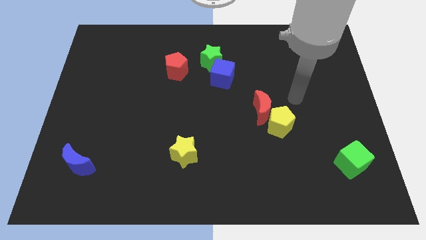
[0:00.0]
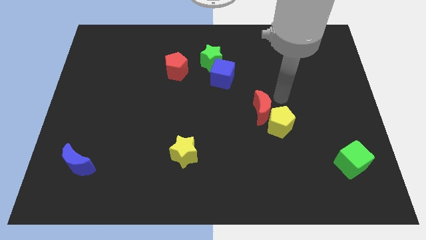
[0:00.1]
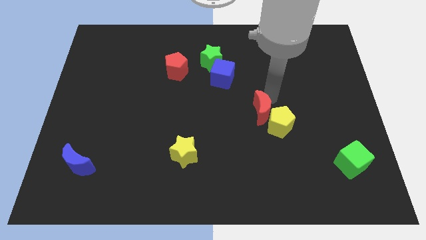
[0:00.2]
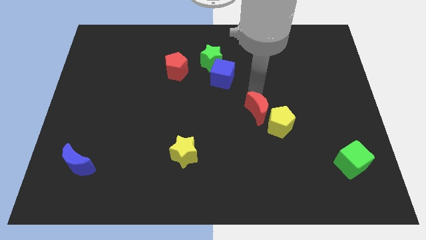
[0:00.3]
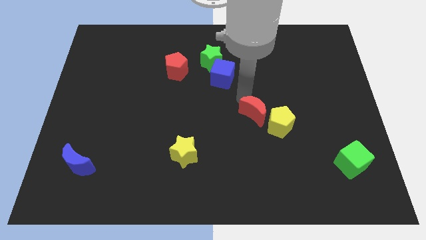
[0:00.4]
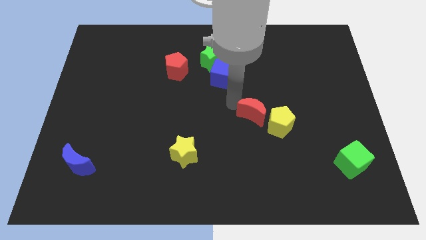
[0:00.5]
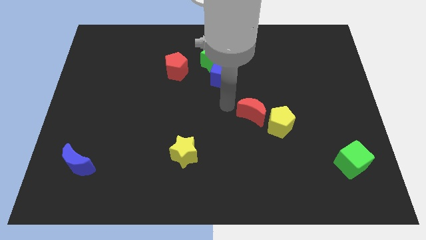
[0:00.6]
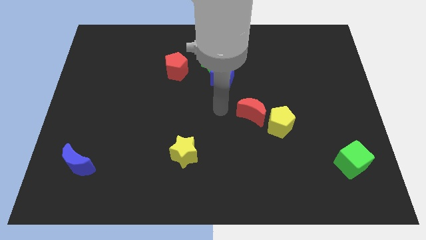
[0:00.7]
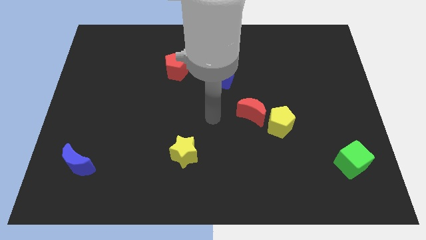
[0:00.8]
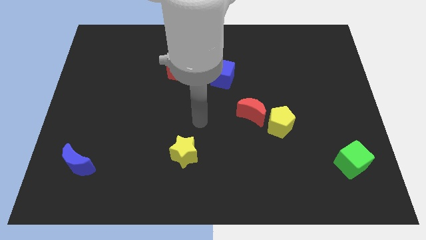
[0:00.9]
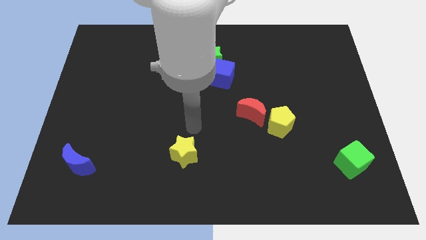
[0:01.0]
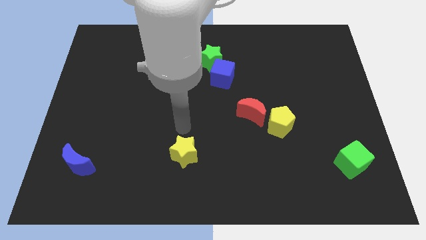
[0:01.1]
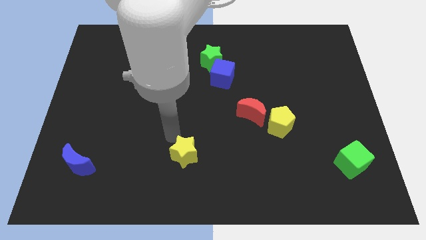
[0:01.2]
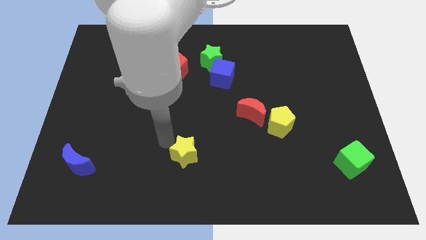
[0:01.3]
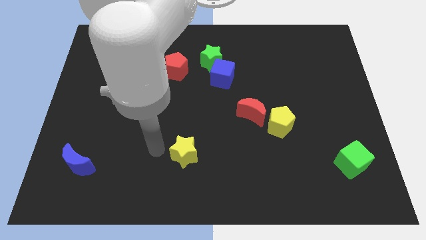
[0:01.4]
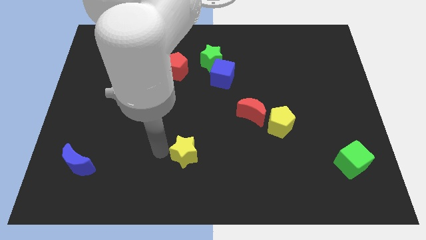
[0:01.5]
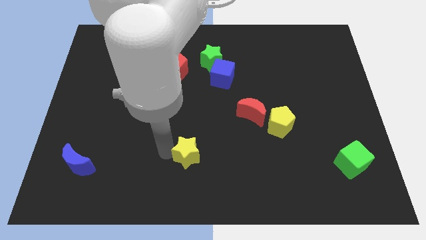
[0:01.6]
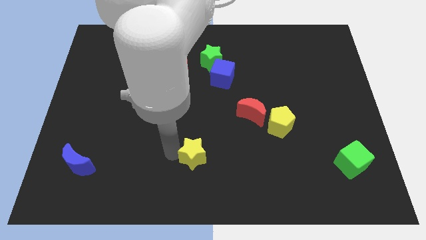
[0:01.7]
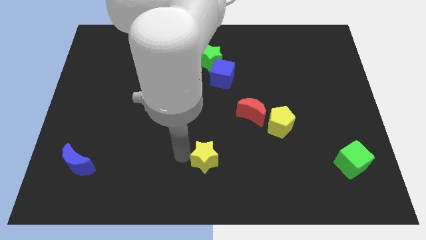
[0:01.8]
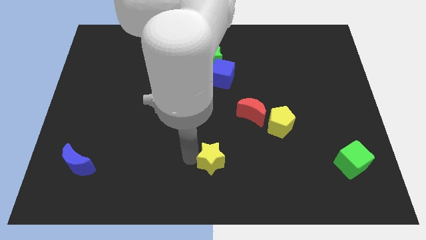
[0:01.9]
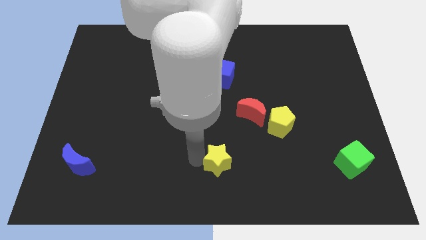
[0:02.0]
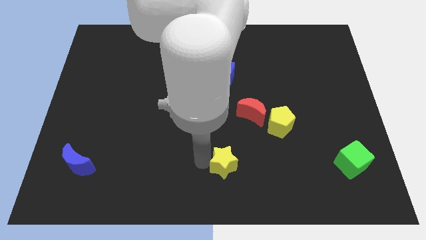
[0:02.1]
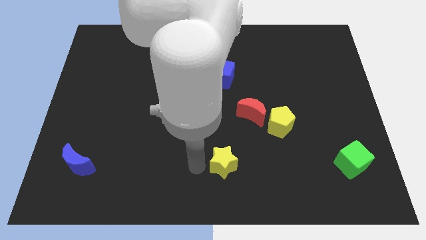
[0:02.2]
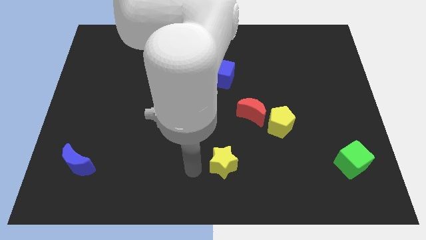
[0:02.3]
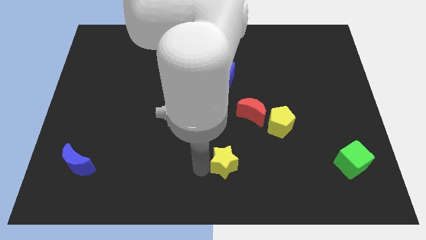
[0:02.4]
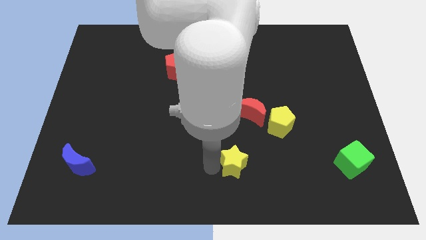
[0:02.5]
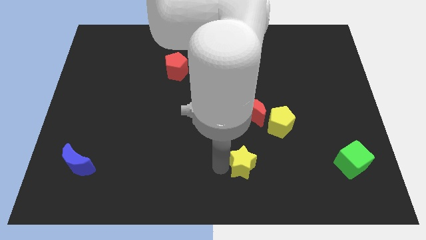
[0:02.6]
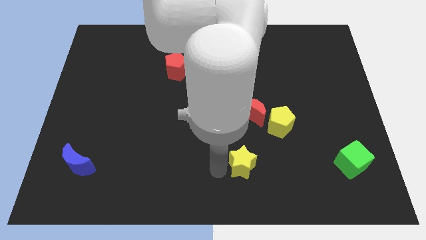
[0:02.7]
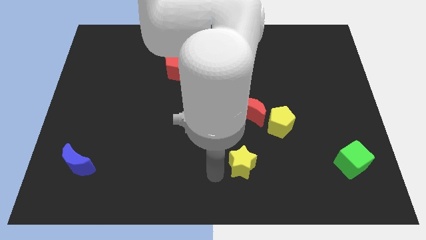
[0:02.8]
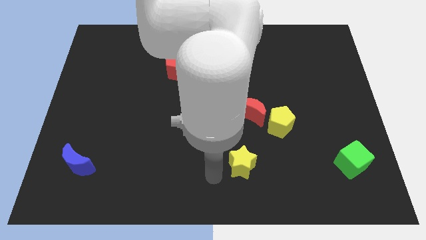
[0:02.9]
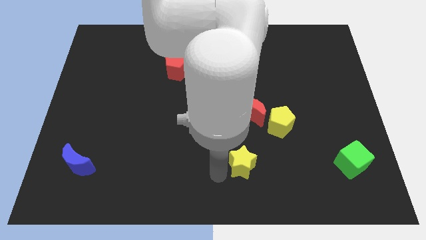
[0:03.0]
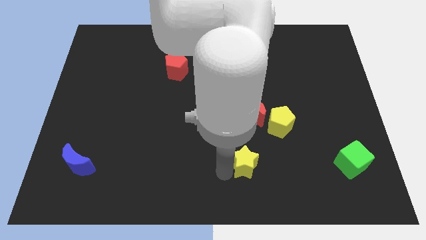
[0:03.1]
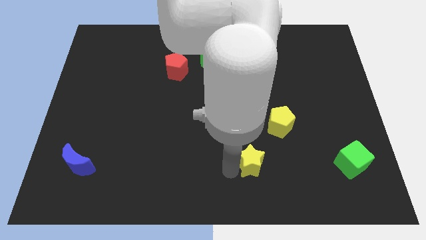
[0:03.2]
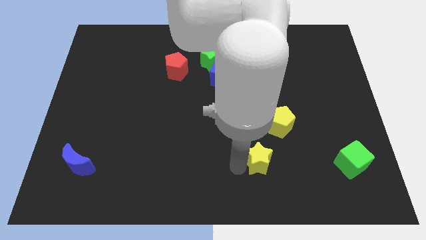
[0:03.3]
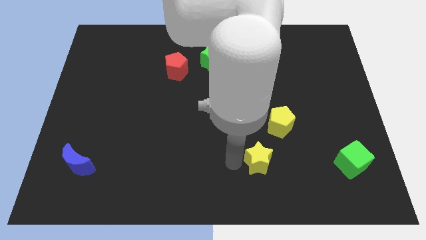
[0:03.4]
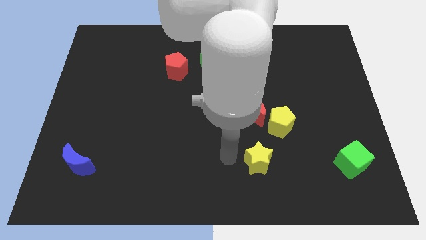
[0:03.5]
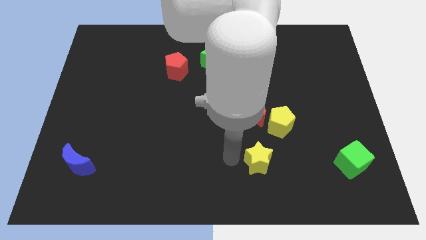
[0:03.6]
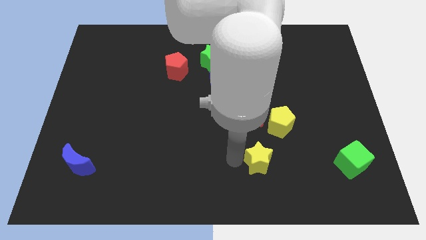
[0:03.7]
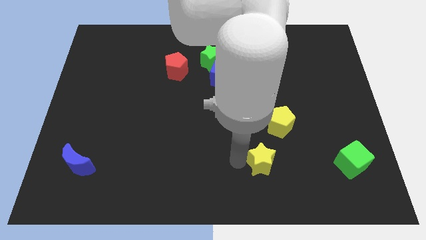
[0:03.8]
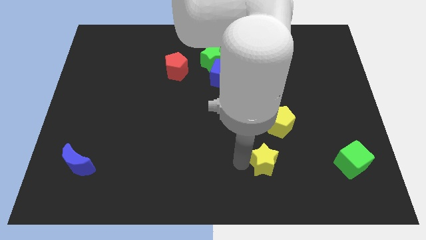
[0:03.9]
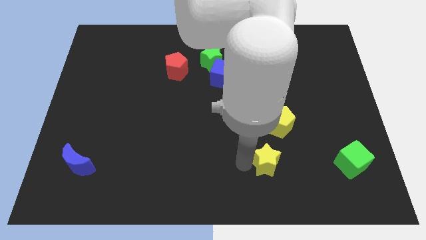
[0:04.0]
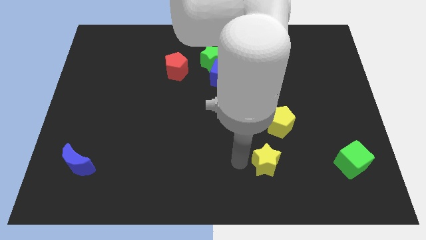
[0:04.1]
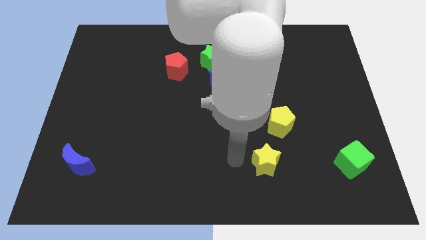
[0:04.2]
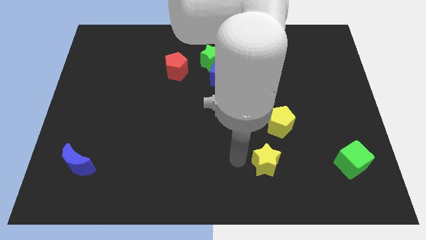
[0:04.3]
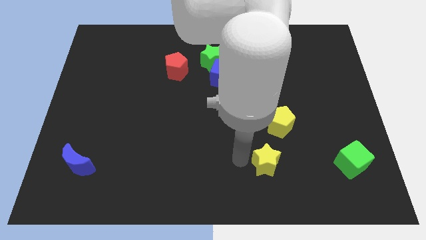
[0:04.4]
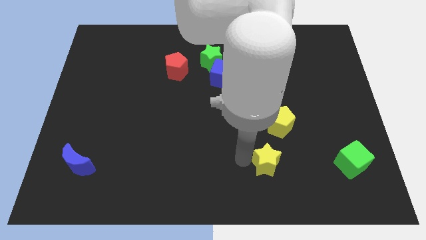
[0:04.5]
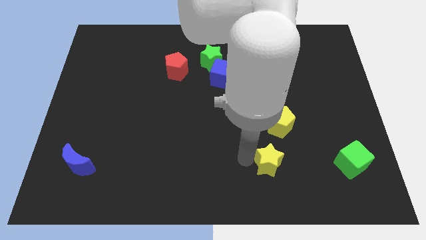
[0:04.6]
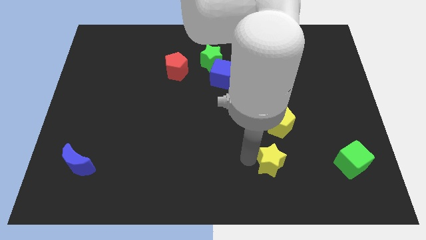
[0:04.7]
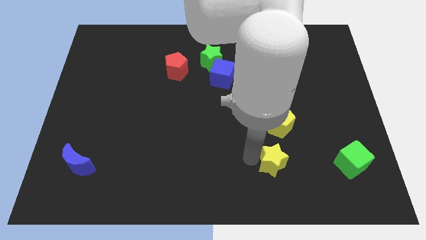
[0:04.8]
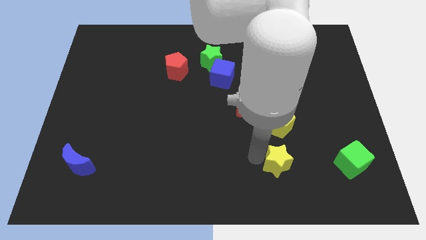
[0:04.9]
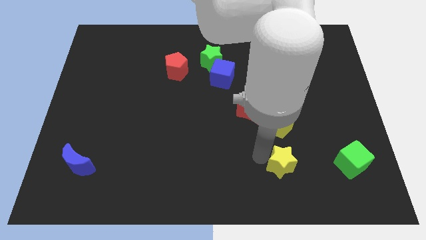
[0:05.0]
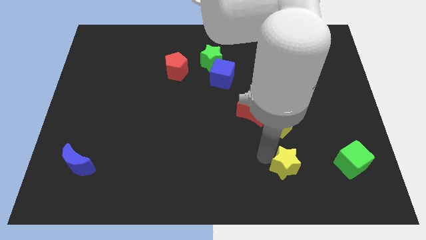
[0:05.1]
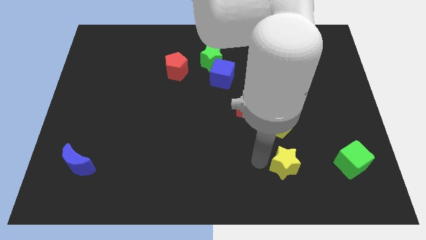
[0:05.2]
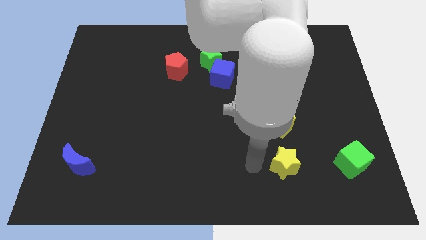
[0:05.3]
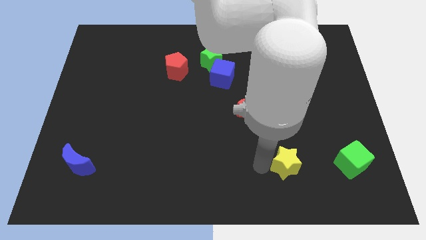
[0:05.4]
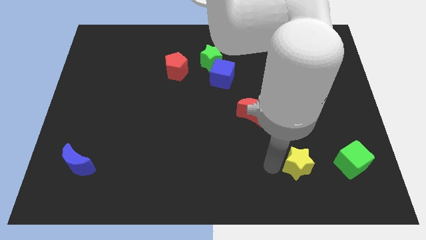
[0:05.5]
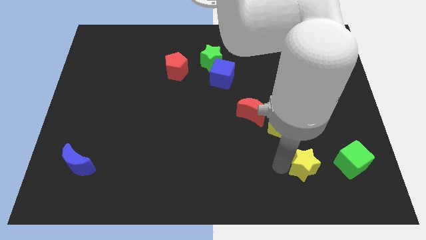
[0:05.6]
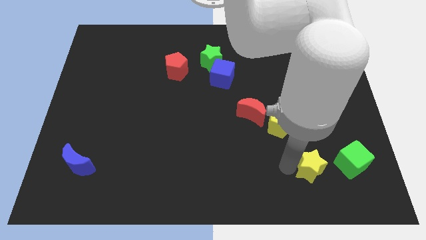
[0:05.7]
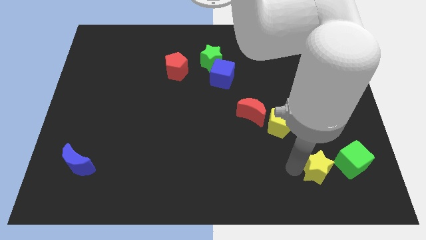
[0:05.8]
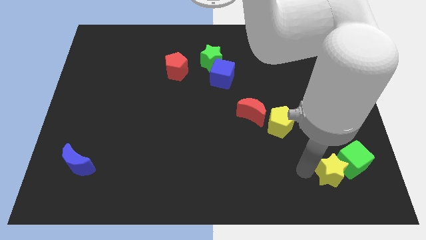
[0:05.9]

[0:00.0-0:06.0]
move the yellow star to the green cube

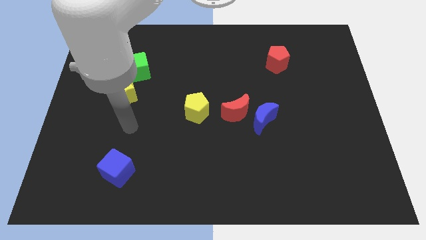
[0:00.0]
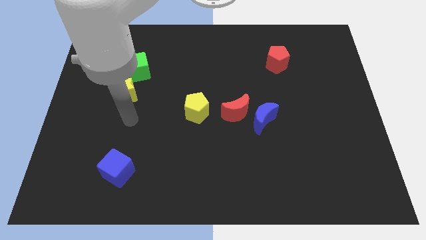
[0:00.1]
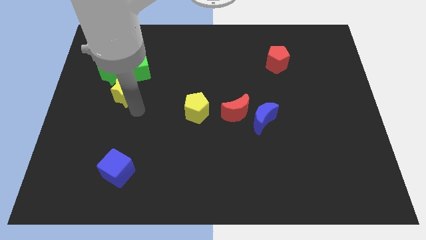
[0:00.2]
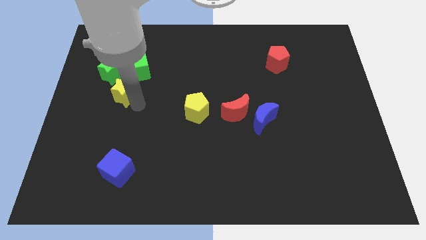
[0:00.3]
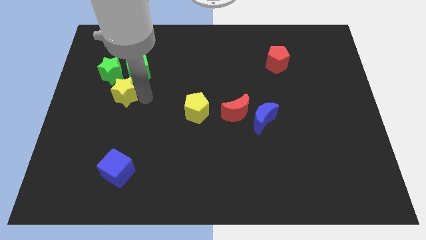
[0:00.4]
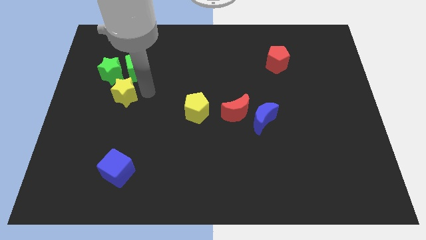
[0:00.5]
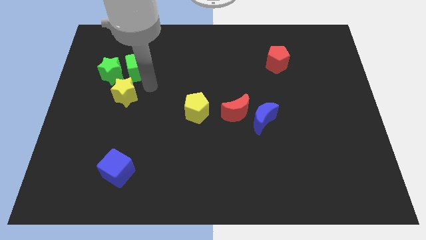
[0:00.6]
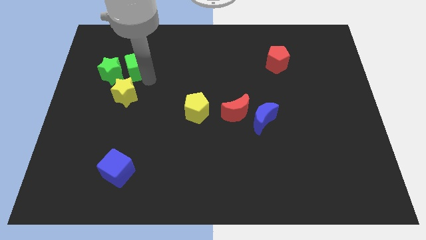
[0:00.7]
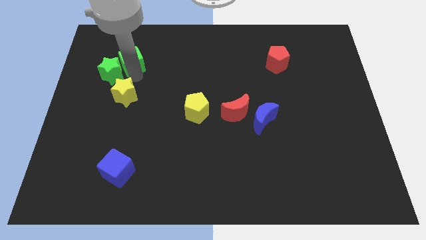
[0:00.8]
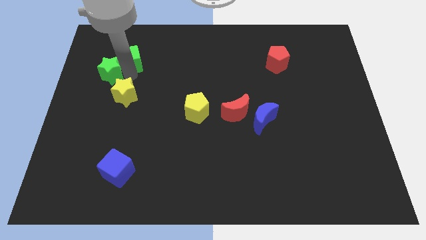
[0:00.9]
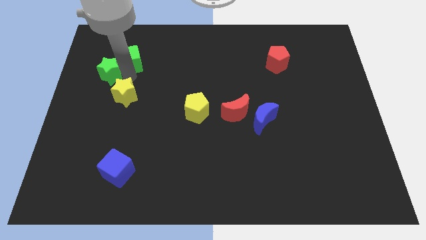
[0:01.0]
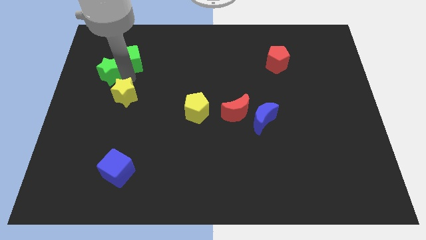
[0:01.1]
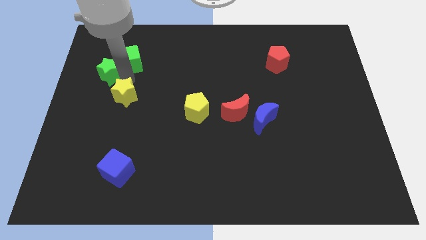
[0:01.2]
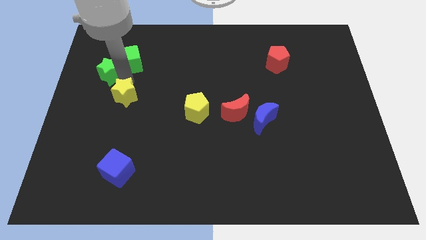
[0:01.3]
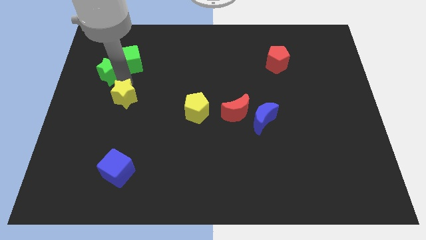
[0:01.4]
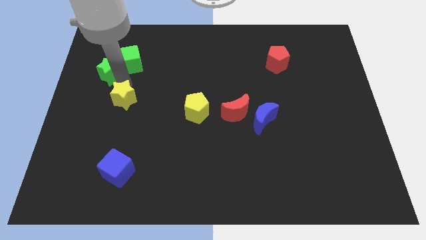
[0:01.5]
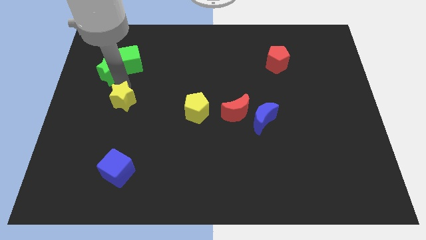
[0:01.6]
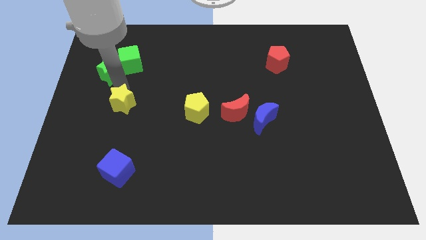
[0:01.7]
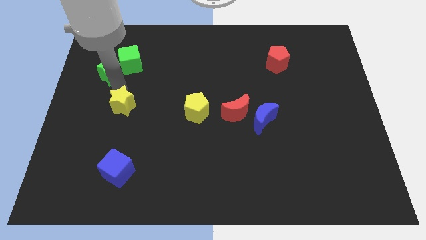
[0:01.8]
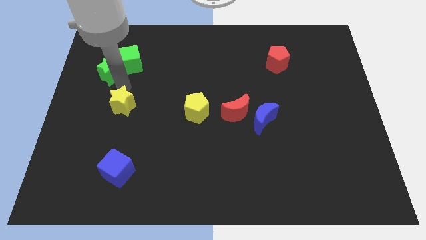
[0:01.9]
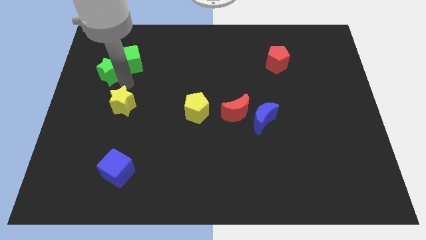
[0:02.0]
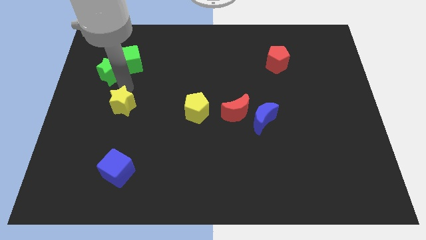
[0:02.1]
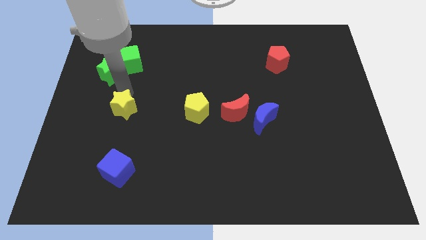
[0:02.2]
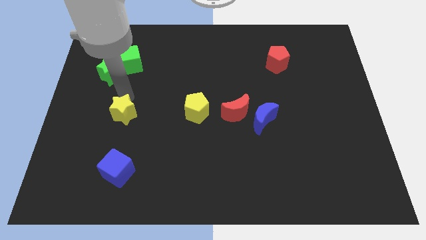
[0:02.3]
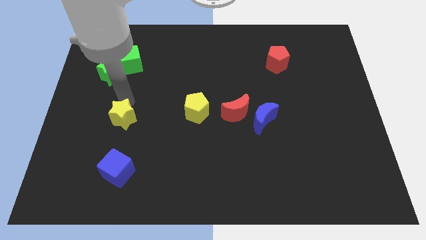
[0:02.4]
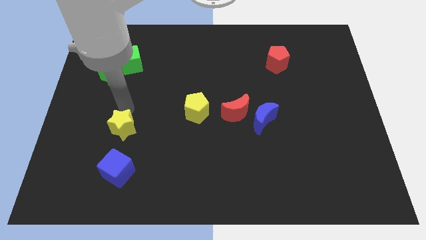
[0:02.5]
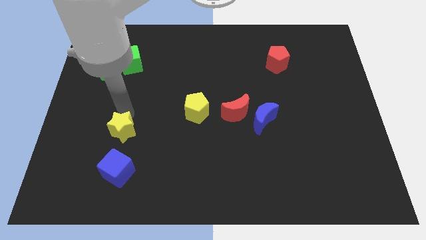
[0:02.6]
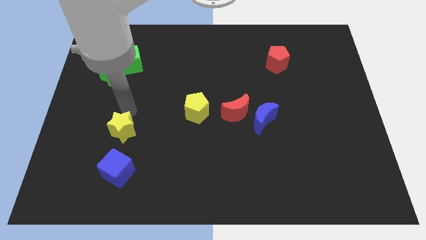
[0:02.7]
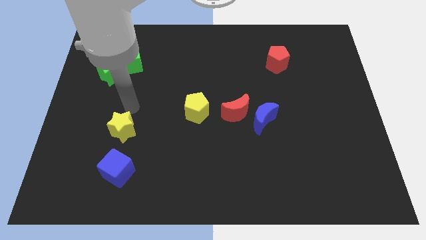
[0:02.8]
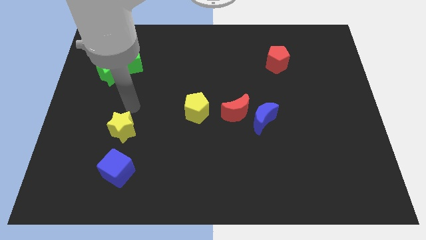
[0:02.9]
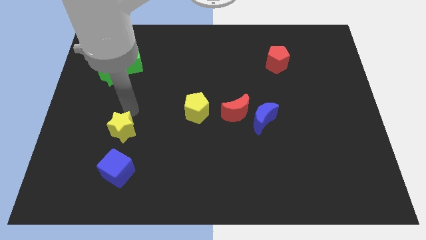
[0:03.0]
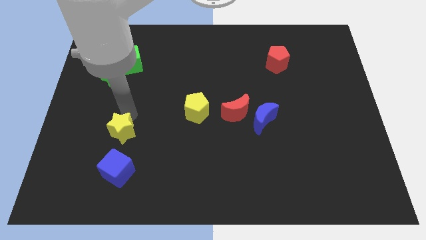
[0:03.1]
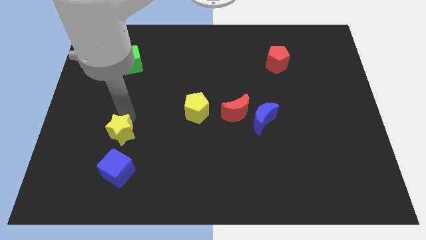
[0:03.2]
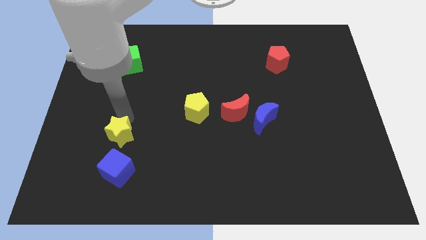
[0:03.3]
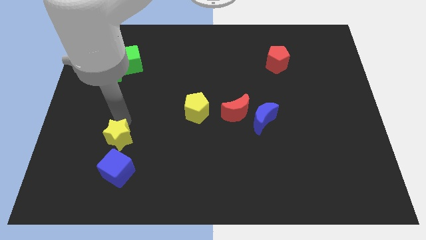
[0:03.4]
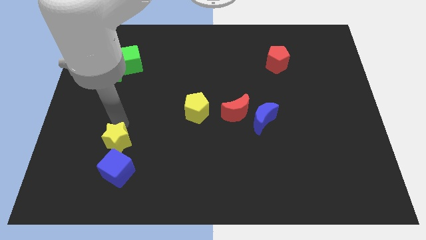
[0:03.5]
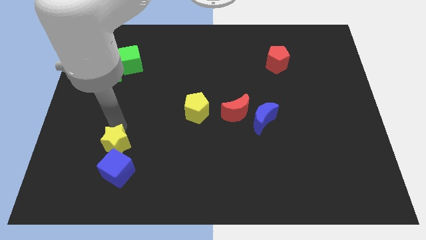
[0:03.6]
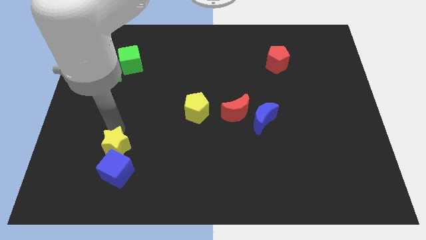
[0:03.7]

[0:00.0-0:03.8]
move the yellow star close to the blue cube
